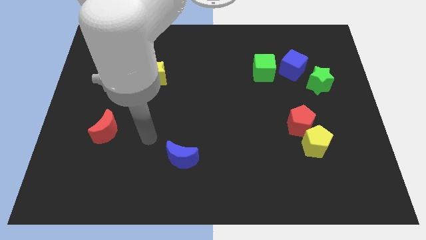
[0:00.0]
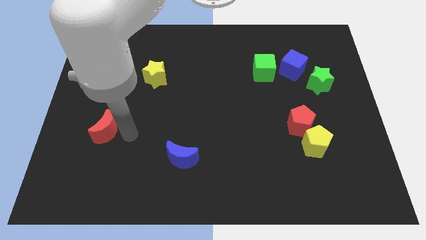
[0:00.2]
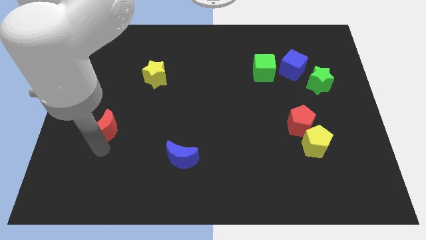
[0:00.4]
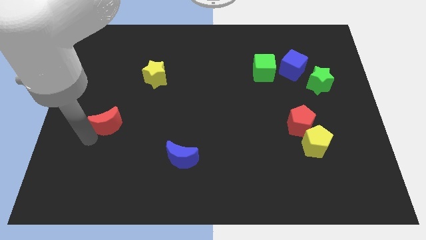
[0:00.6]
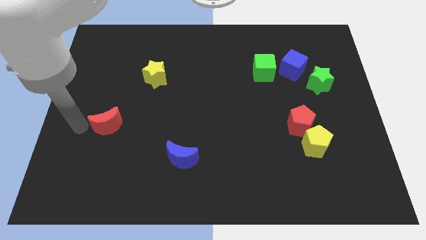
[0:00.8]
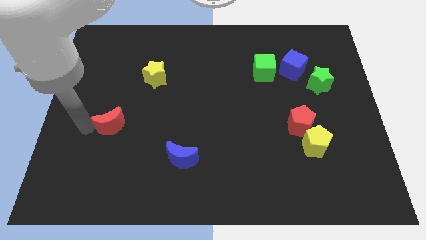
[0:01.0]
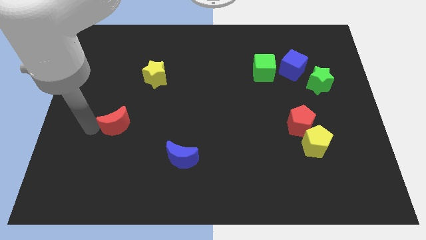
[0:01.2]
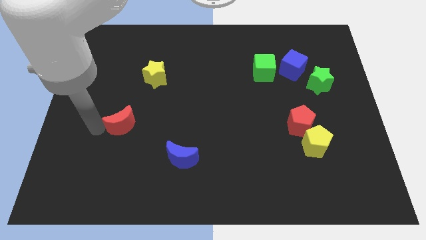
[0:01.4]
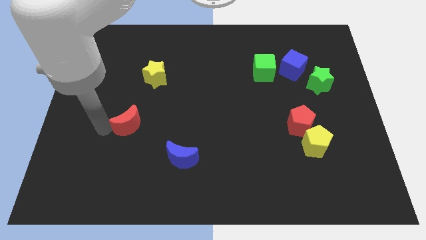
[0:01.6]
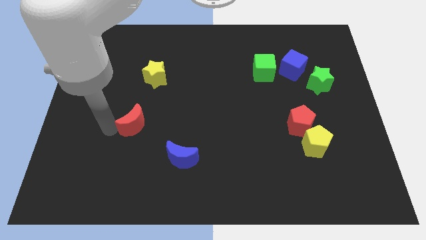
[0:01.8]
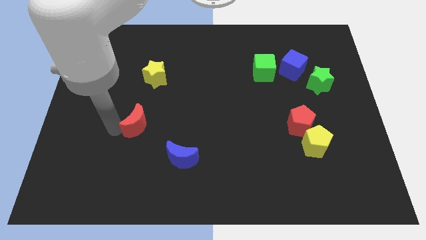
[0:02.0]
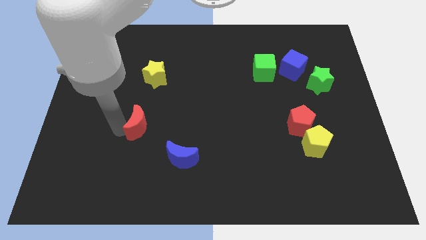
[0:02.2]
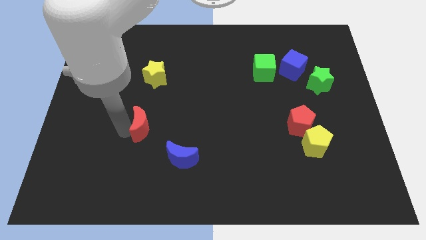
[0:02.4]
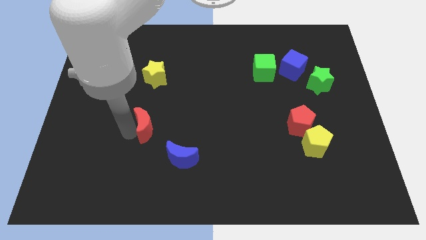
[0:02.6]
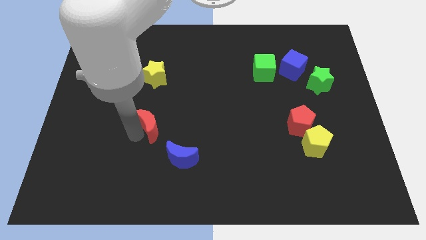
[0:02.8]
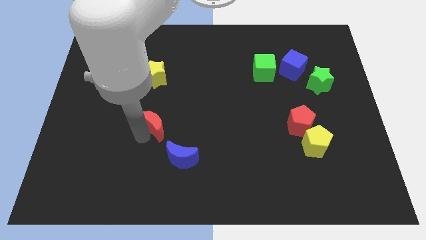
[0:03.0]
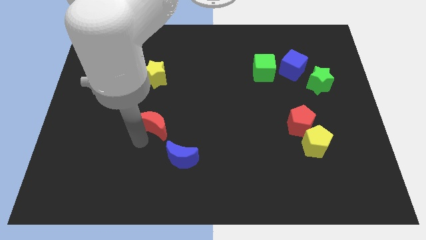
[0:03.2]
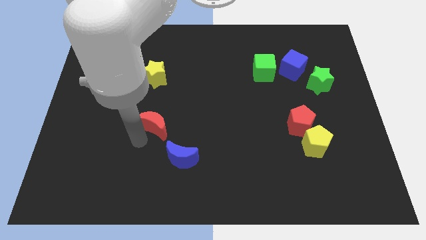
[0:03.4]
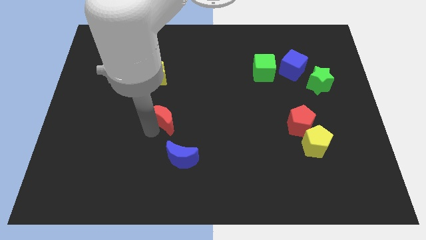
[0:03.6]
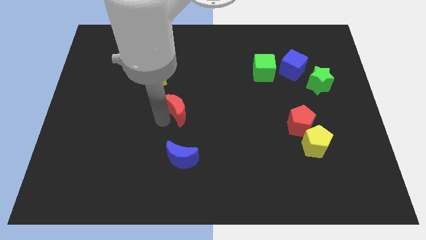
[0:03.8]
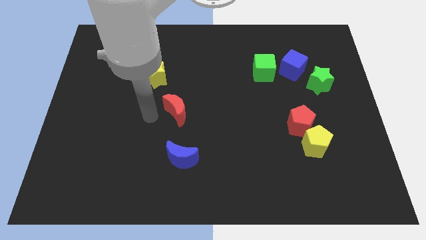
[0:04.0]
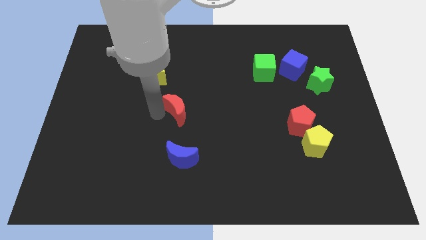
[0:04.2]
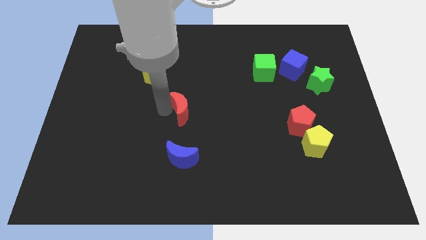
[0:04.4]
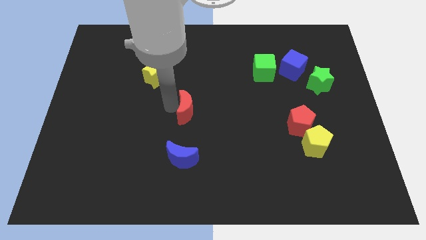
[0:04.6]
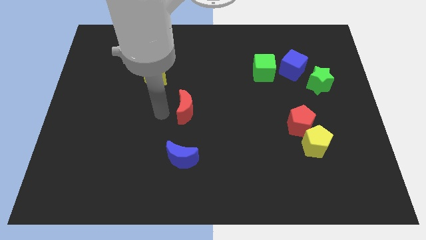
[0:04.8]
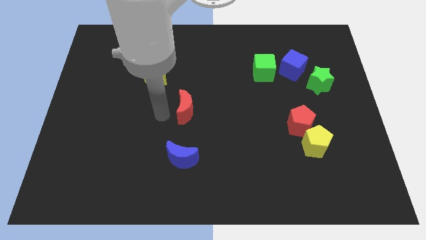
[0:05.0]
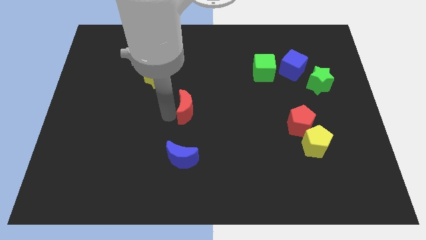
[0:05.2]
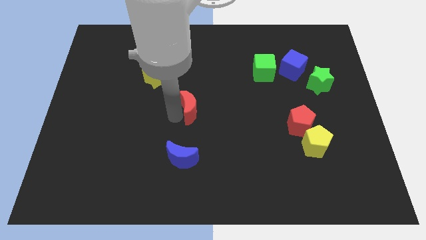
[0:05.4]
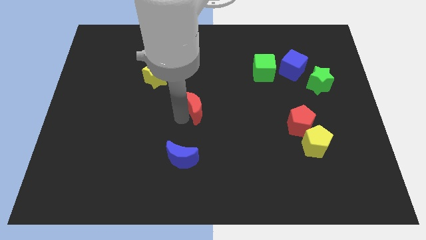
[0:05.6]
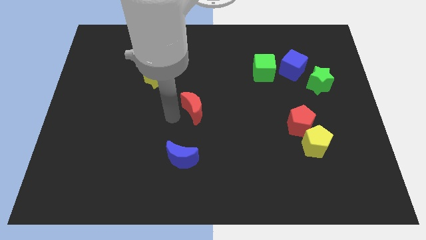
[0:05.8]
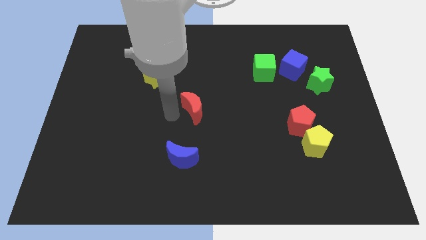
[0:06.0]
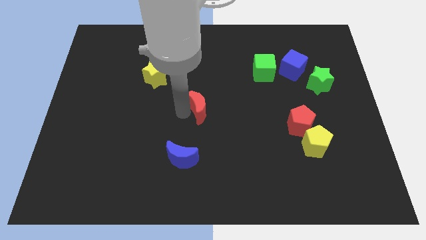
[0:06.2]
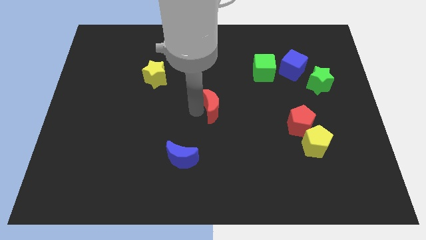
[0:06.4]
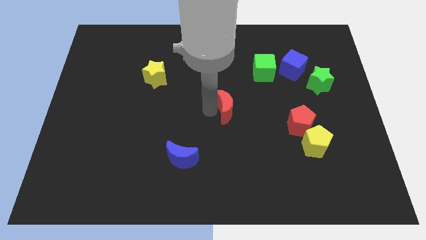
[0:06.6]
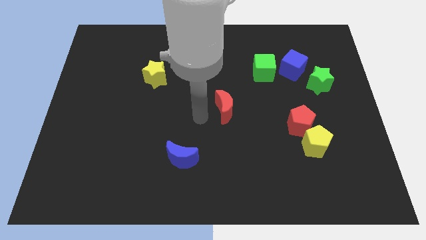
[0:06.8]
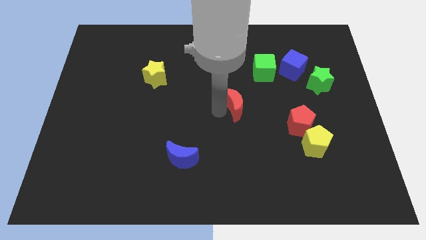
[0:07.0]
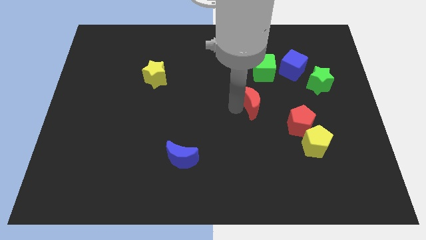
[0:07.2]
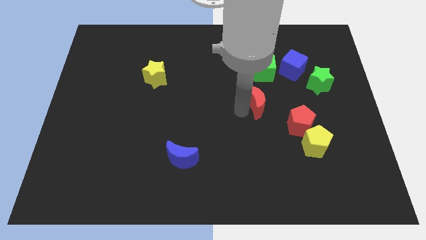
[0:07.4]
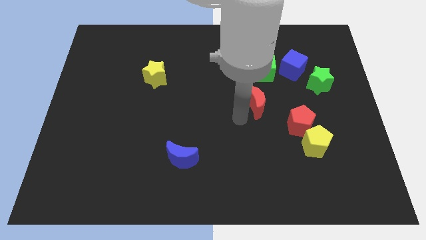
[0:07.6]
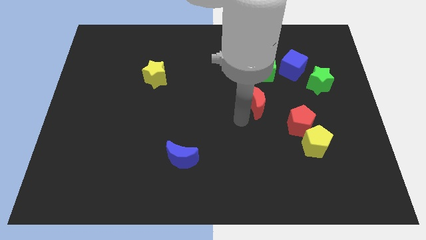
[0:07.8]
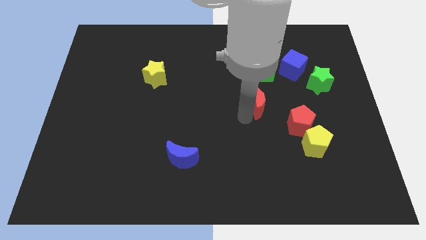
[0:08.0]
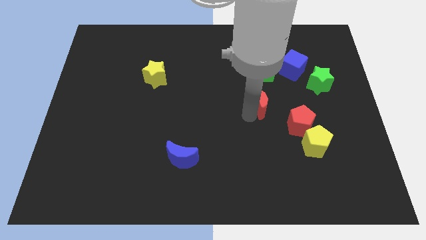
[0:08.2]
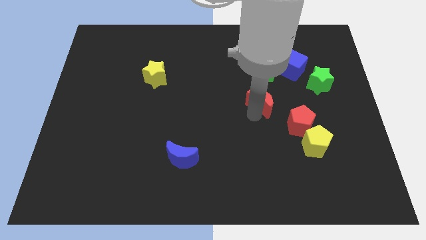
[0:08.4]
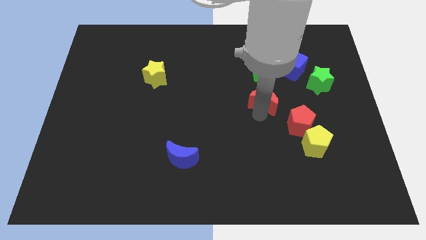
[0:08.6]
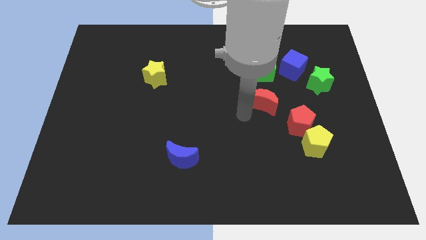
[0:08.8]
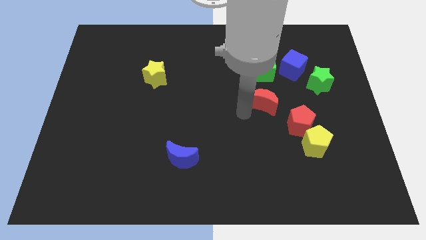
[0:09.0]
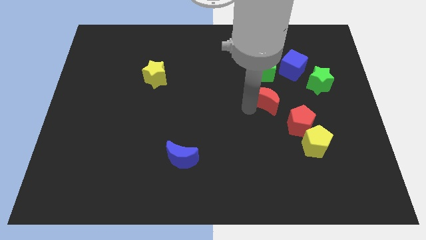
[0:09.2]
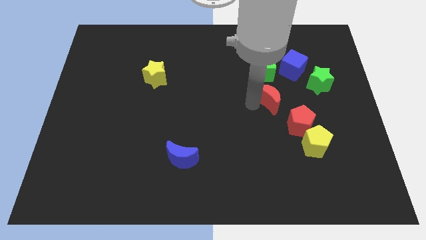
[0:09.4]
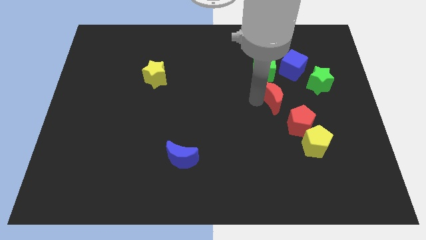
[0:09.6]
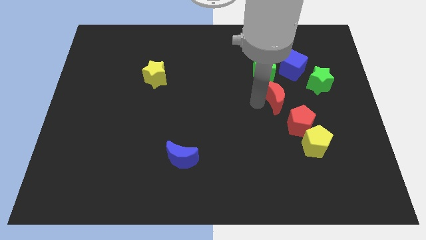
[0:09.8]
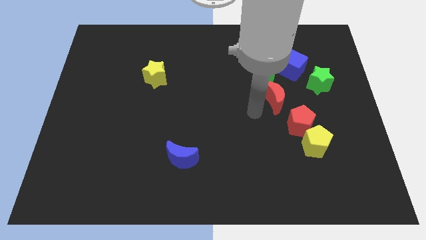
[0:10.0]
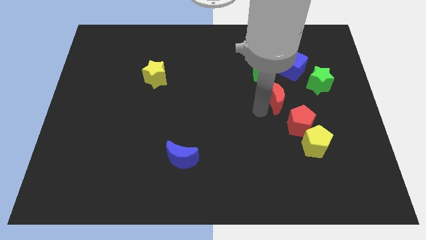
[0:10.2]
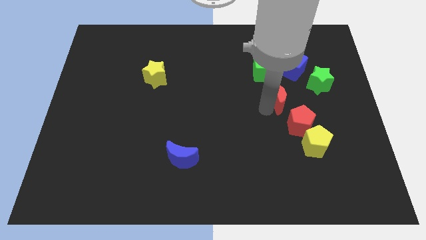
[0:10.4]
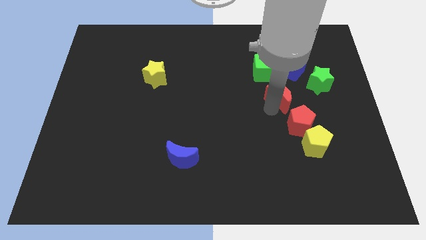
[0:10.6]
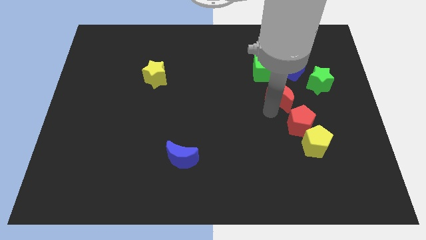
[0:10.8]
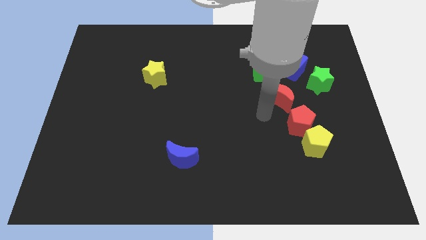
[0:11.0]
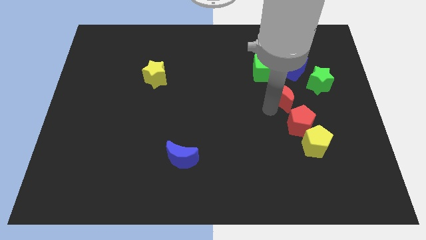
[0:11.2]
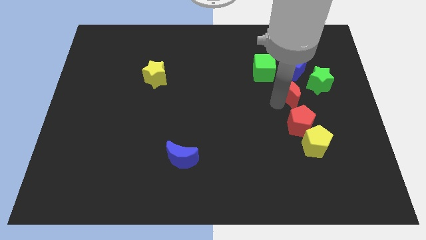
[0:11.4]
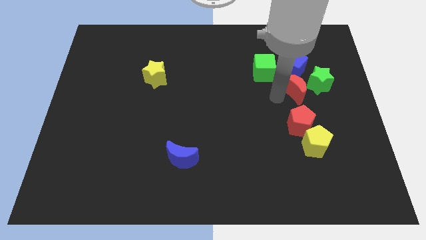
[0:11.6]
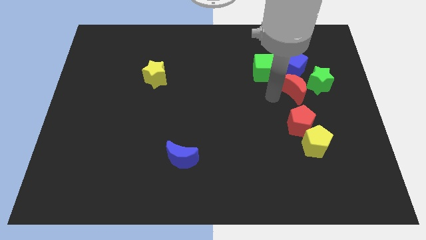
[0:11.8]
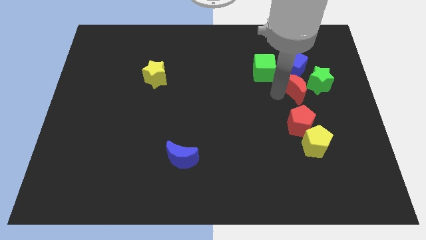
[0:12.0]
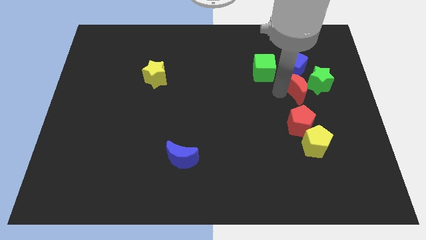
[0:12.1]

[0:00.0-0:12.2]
put the red moon to the green star
